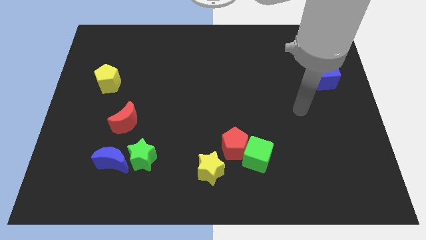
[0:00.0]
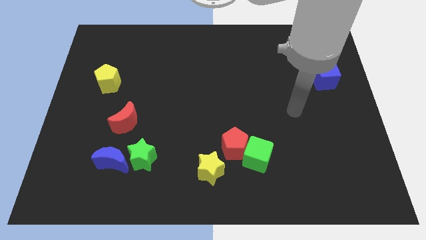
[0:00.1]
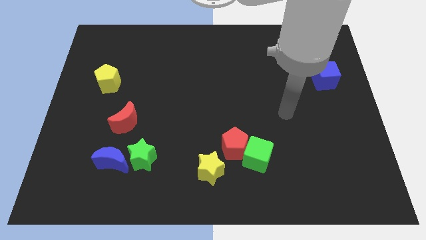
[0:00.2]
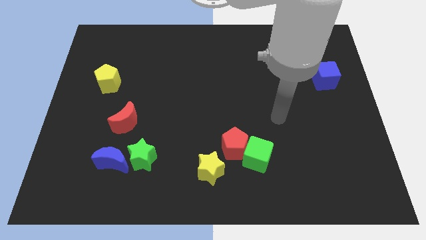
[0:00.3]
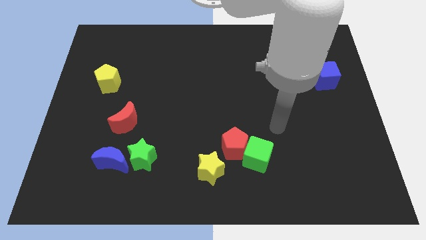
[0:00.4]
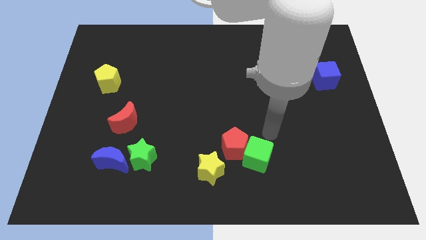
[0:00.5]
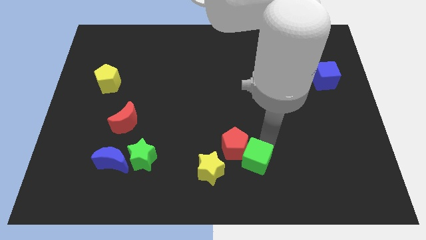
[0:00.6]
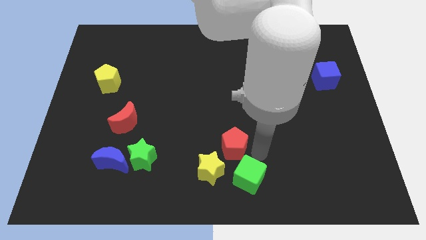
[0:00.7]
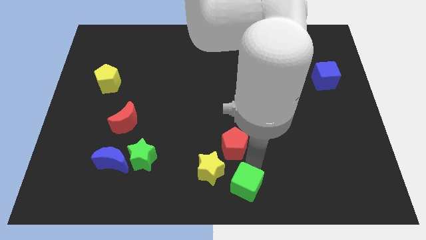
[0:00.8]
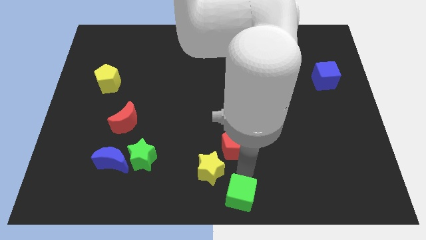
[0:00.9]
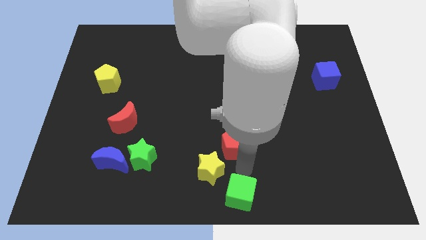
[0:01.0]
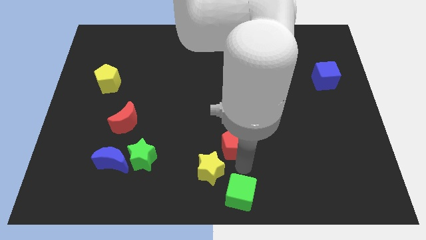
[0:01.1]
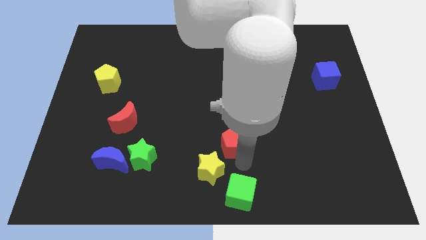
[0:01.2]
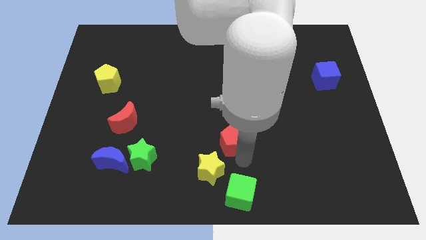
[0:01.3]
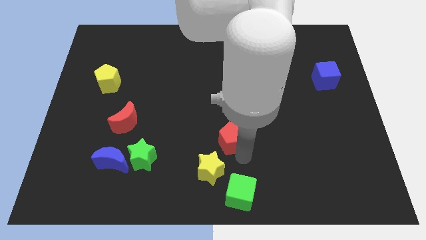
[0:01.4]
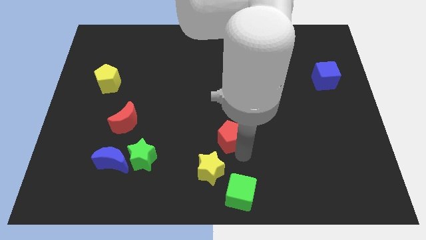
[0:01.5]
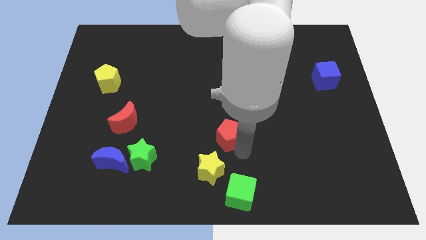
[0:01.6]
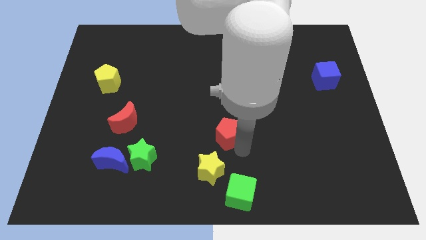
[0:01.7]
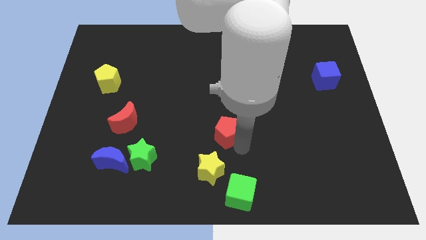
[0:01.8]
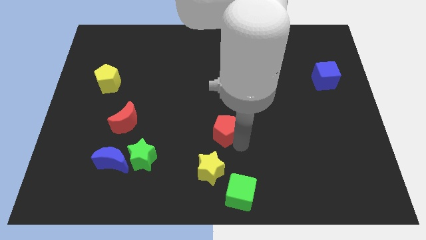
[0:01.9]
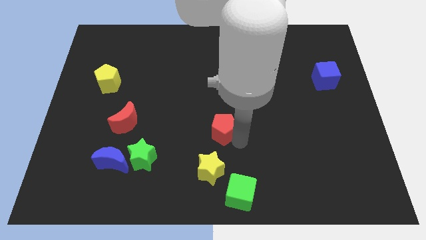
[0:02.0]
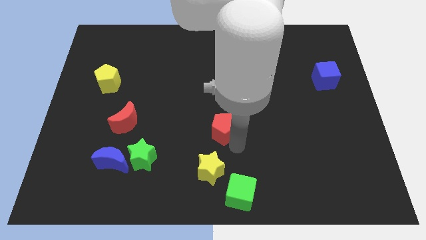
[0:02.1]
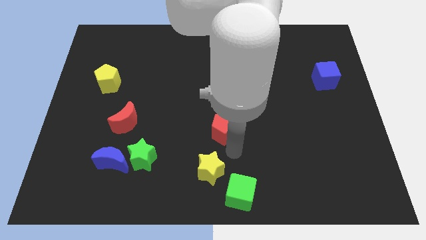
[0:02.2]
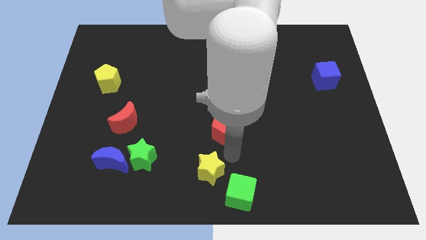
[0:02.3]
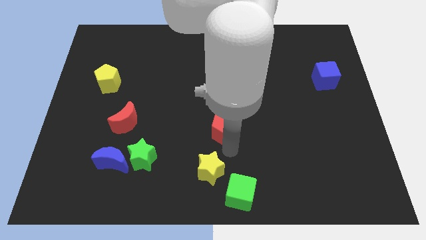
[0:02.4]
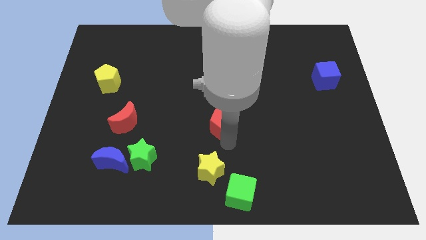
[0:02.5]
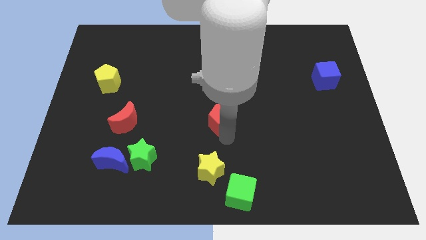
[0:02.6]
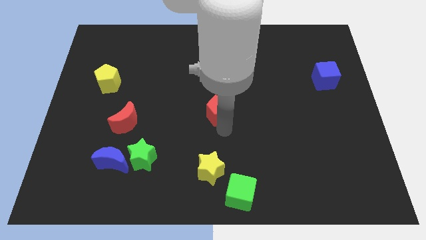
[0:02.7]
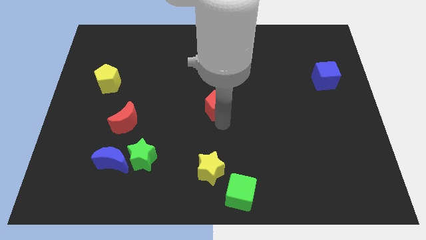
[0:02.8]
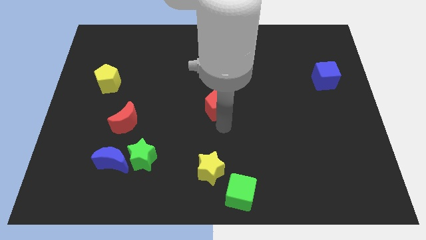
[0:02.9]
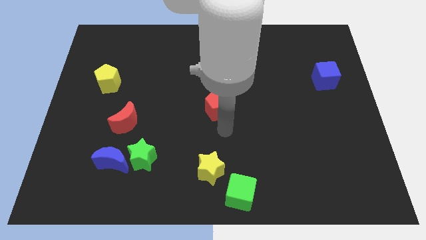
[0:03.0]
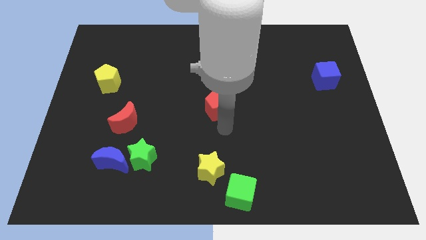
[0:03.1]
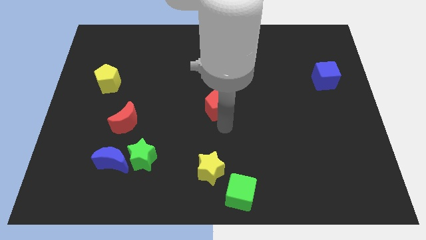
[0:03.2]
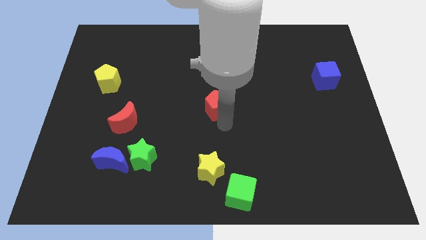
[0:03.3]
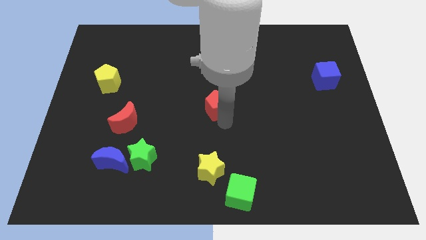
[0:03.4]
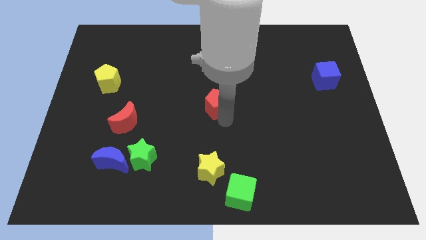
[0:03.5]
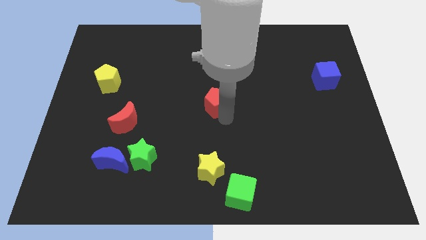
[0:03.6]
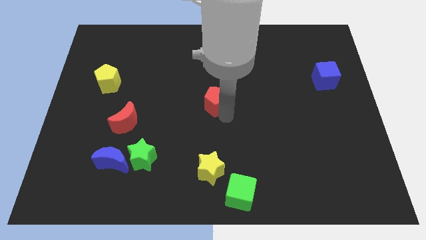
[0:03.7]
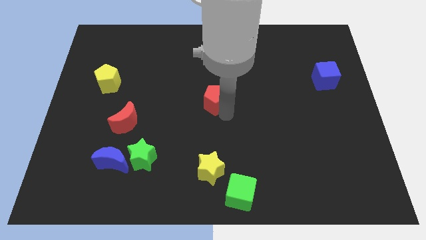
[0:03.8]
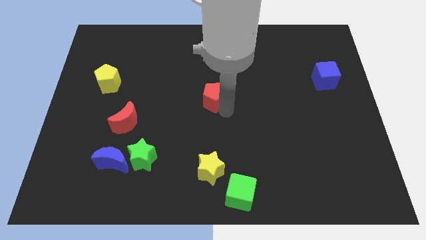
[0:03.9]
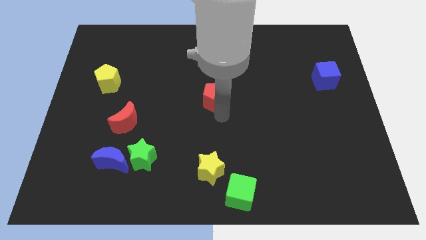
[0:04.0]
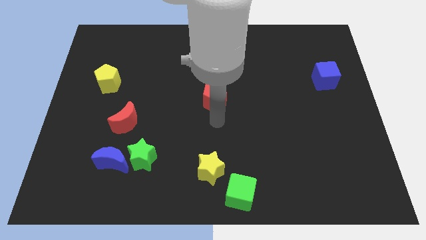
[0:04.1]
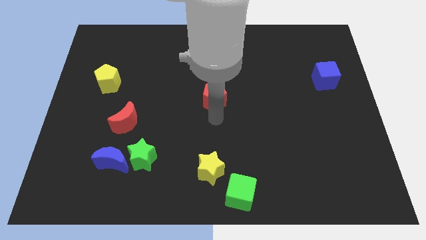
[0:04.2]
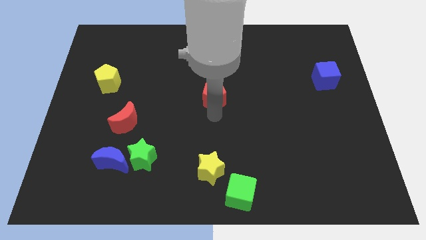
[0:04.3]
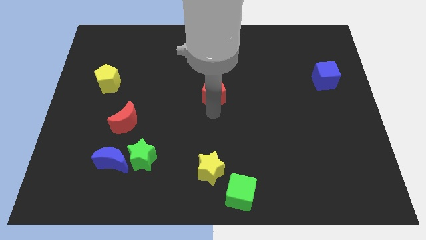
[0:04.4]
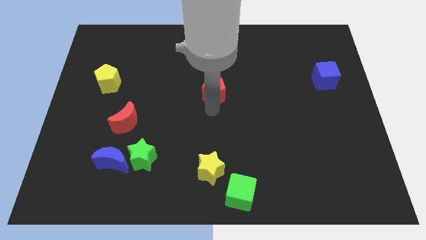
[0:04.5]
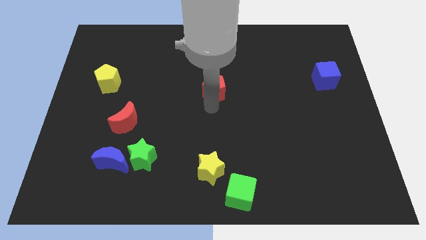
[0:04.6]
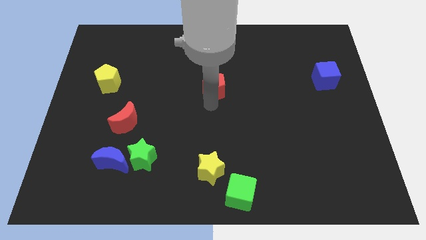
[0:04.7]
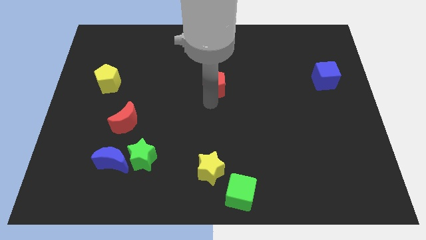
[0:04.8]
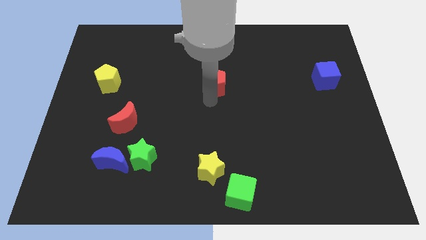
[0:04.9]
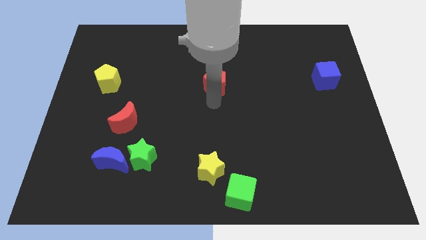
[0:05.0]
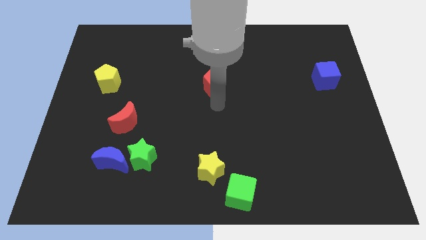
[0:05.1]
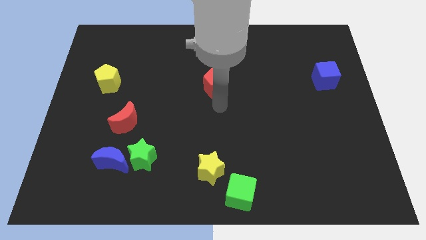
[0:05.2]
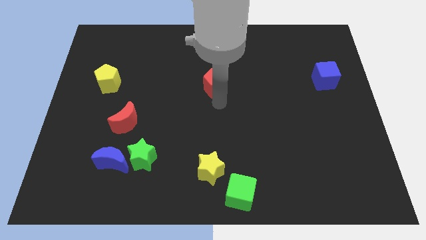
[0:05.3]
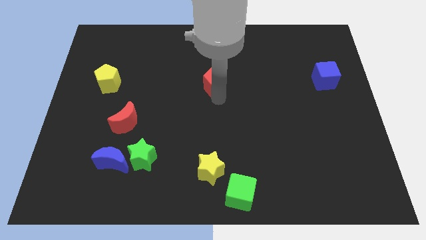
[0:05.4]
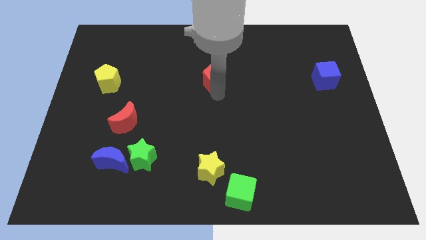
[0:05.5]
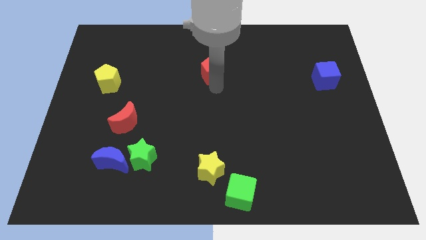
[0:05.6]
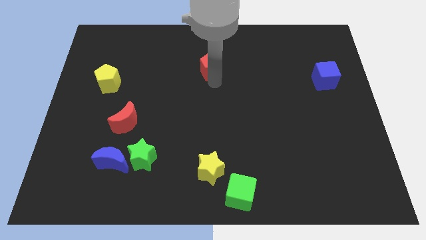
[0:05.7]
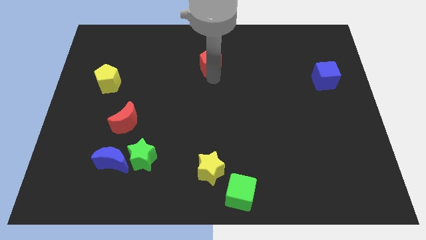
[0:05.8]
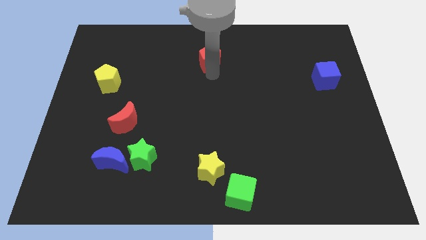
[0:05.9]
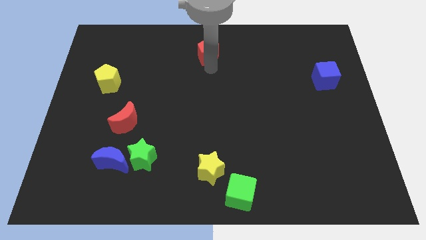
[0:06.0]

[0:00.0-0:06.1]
move the red pentagon to the top
